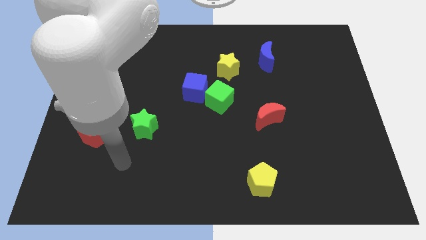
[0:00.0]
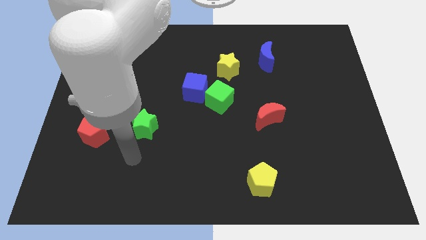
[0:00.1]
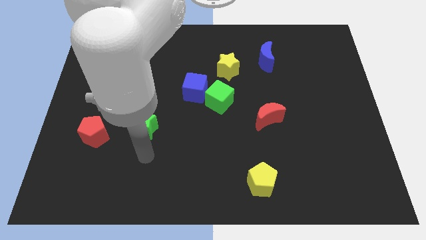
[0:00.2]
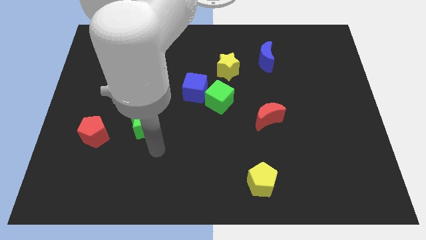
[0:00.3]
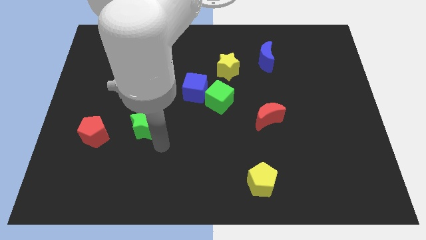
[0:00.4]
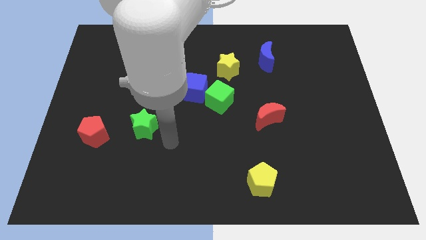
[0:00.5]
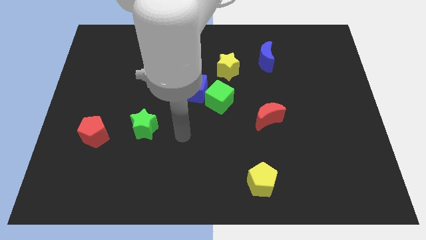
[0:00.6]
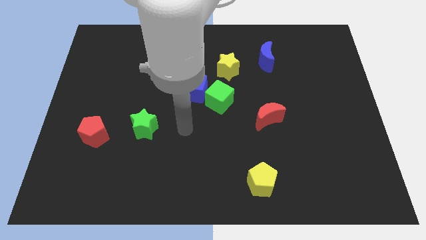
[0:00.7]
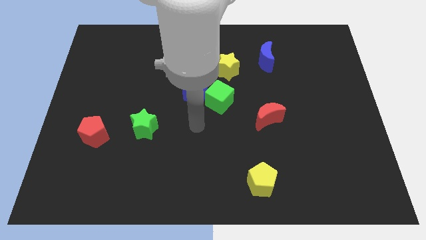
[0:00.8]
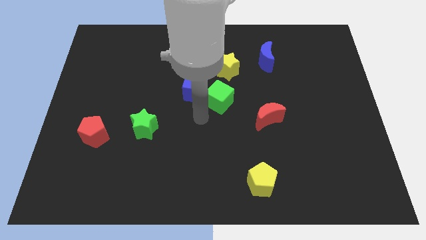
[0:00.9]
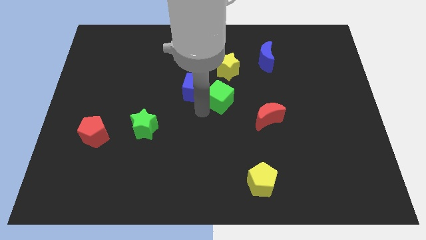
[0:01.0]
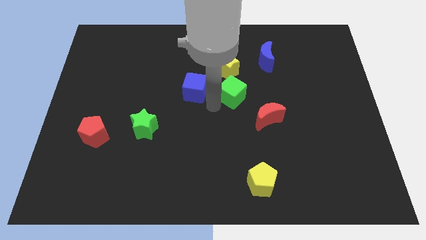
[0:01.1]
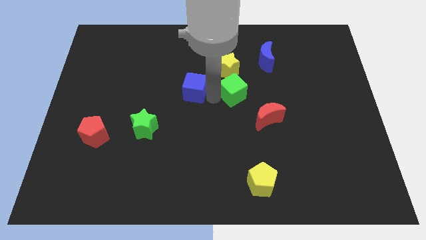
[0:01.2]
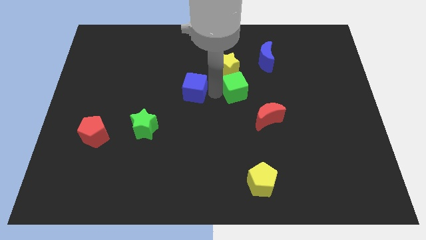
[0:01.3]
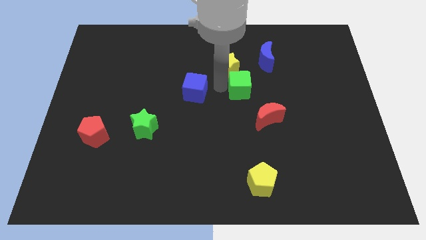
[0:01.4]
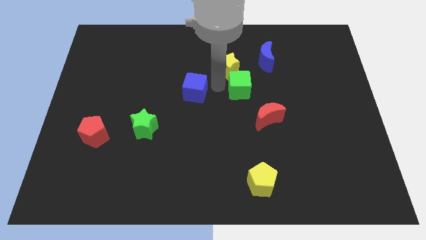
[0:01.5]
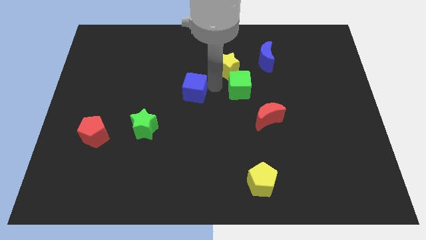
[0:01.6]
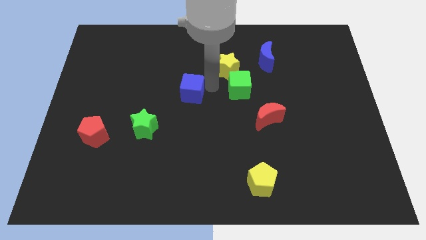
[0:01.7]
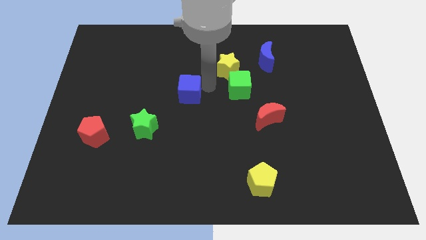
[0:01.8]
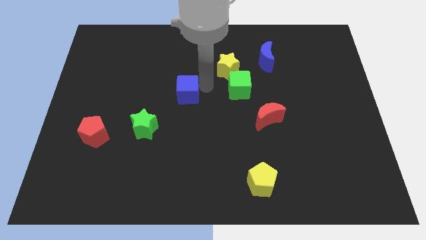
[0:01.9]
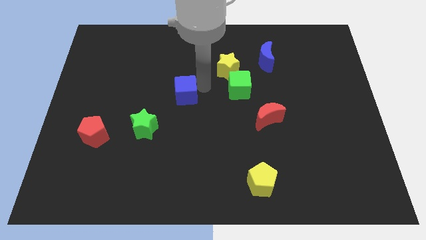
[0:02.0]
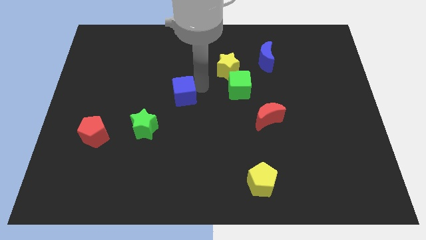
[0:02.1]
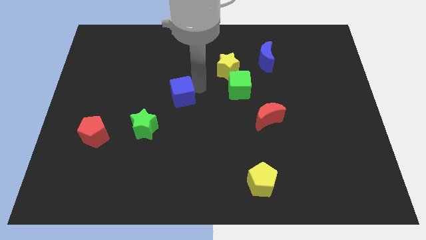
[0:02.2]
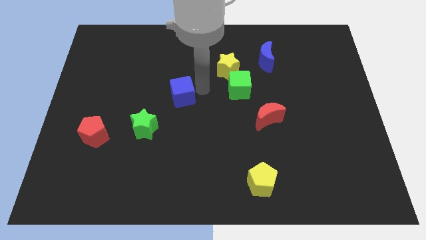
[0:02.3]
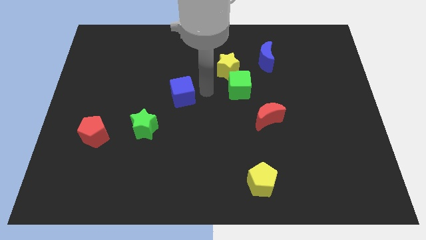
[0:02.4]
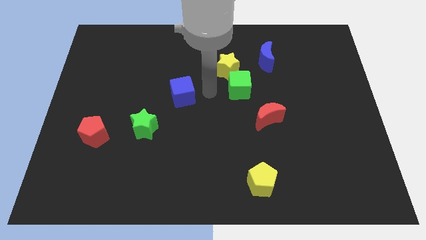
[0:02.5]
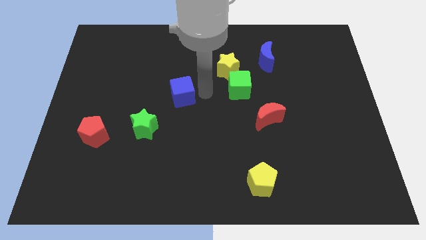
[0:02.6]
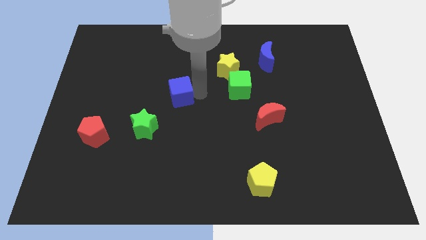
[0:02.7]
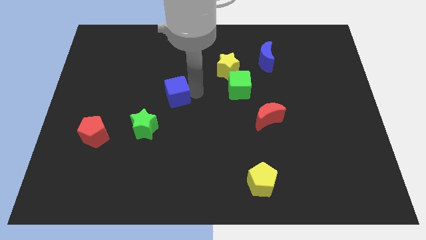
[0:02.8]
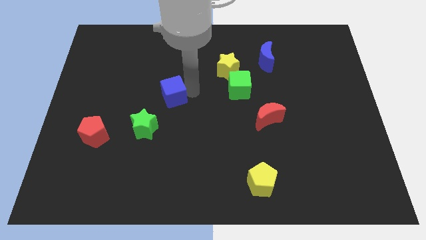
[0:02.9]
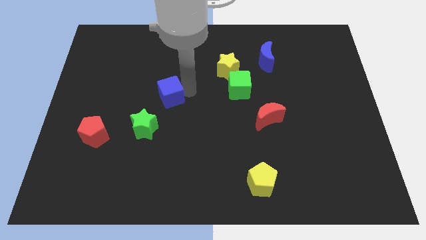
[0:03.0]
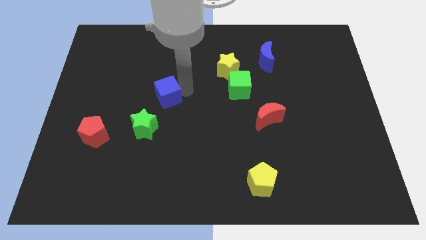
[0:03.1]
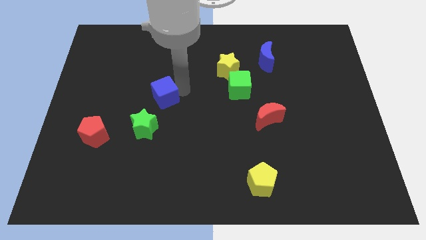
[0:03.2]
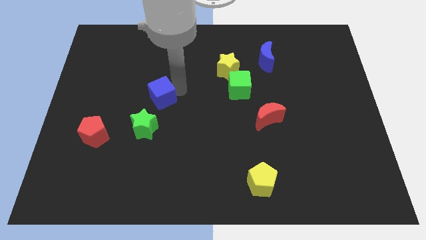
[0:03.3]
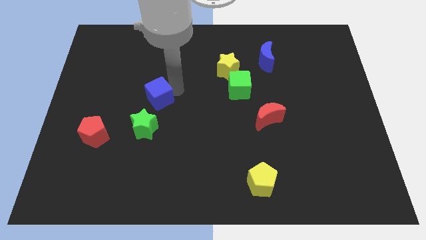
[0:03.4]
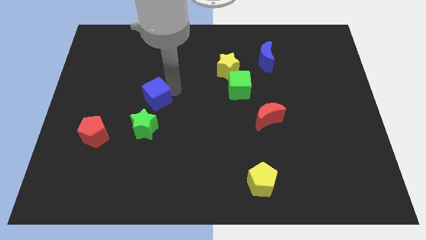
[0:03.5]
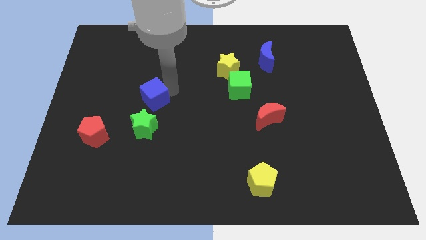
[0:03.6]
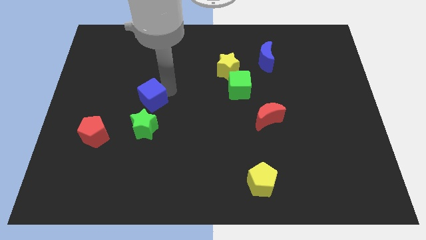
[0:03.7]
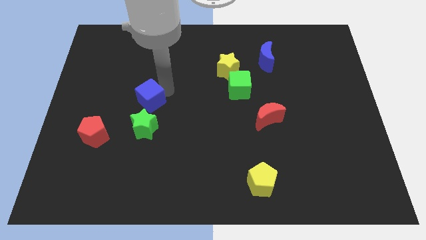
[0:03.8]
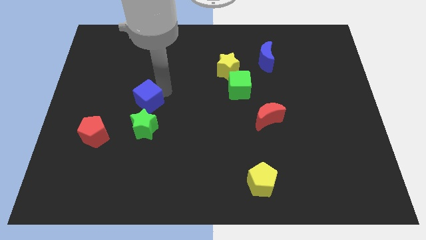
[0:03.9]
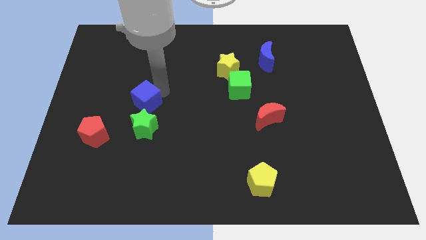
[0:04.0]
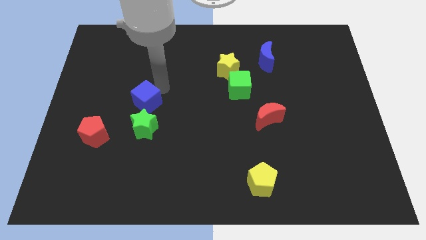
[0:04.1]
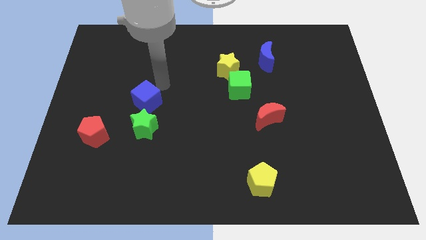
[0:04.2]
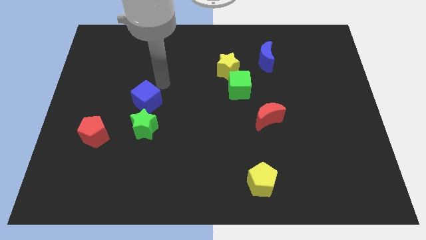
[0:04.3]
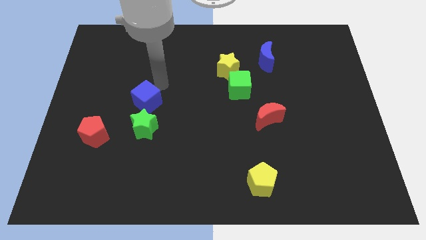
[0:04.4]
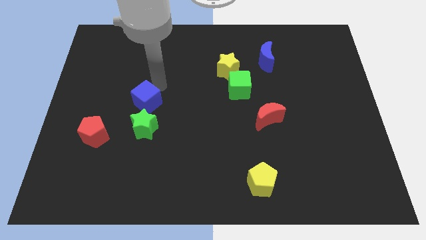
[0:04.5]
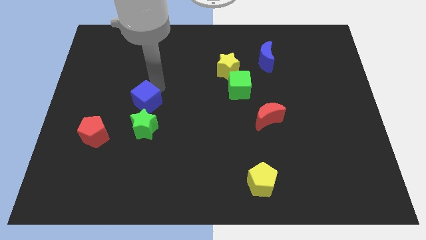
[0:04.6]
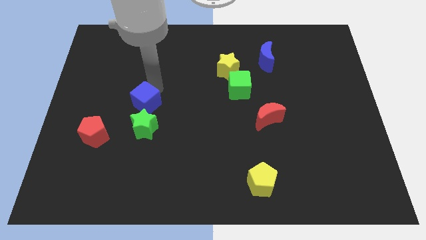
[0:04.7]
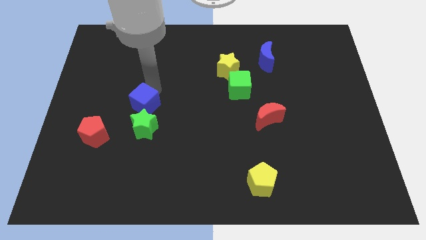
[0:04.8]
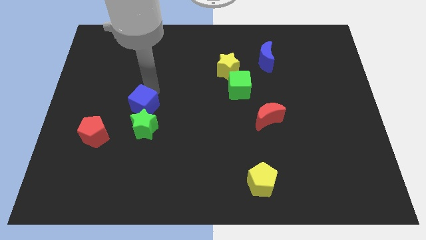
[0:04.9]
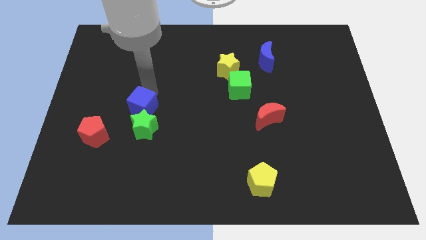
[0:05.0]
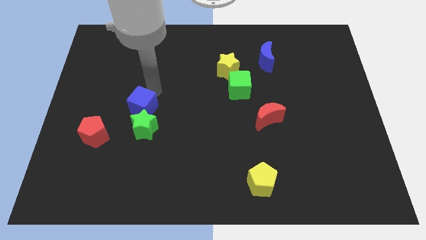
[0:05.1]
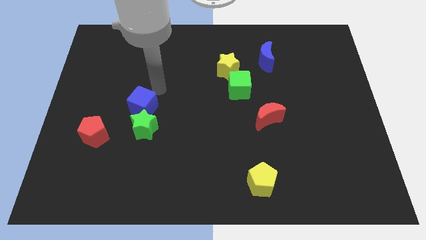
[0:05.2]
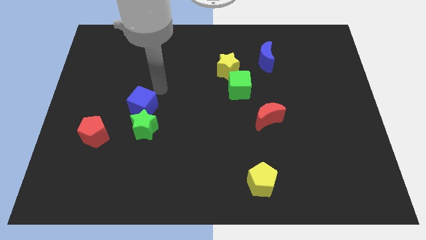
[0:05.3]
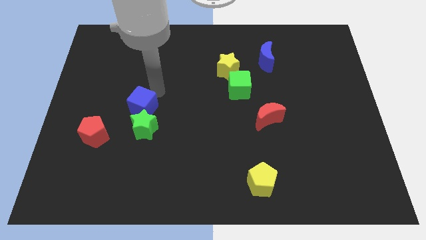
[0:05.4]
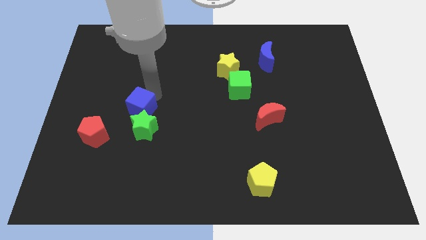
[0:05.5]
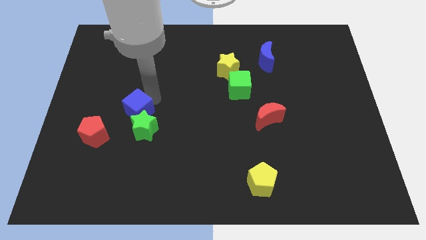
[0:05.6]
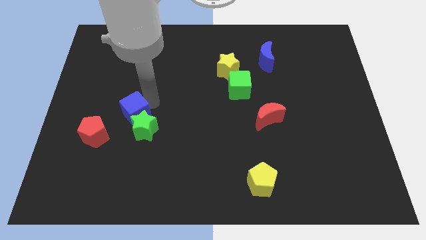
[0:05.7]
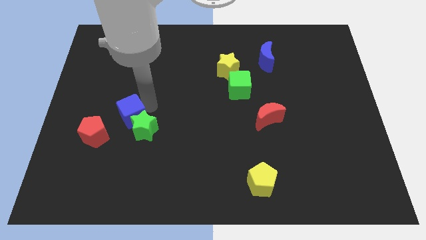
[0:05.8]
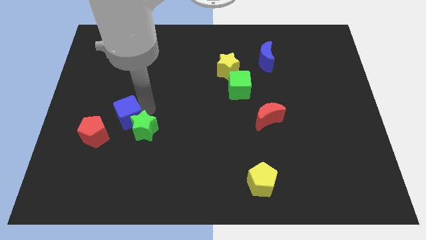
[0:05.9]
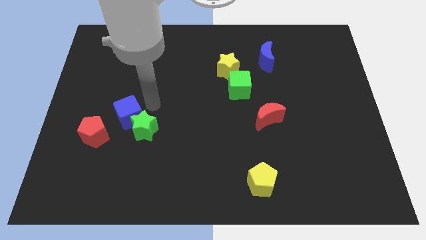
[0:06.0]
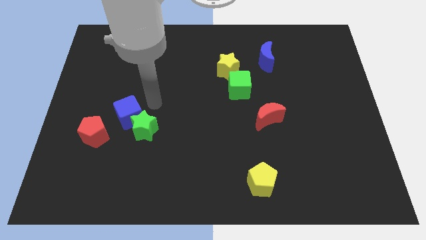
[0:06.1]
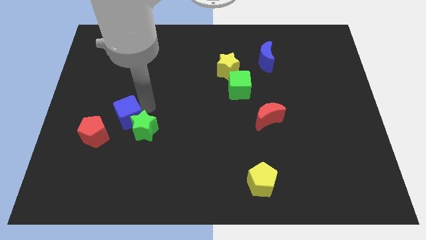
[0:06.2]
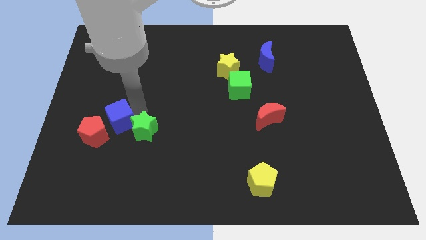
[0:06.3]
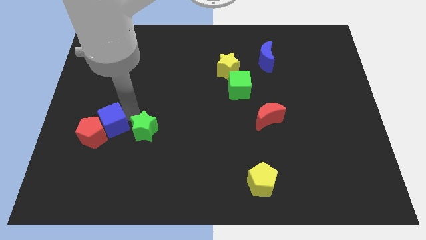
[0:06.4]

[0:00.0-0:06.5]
slide the blue cube close to the red pentagon

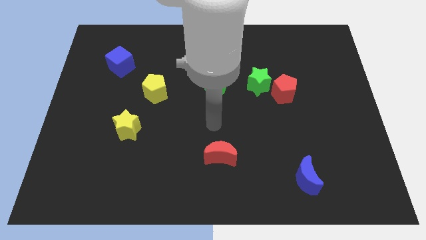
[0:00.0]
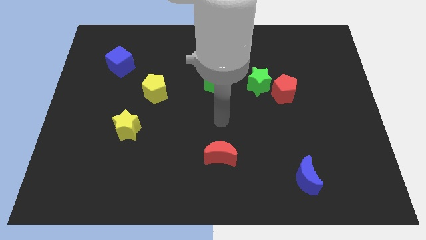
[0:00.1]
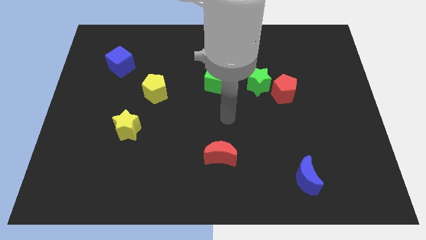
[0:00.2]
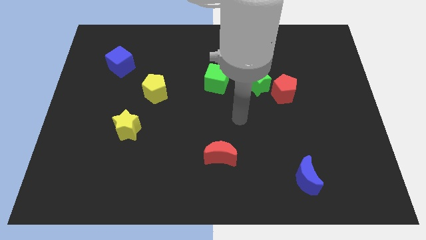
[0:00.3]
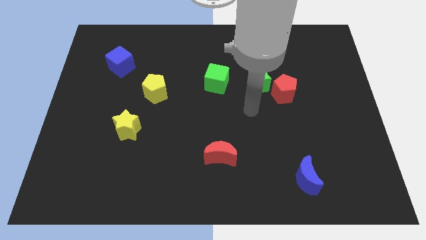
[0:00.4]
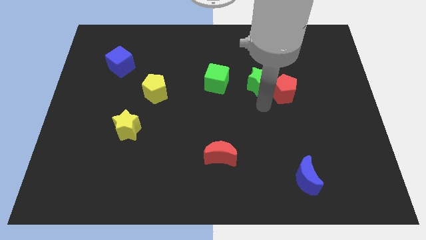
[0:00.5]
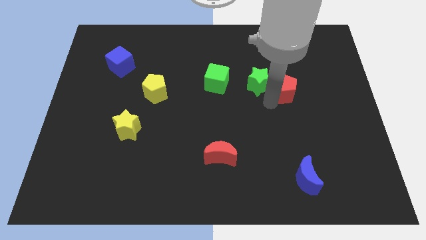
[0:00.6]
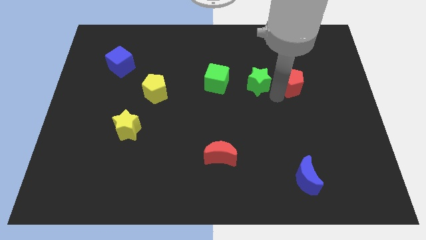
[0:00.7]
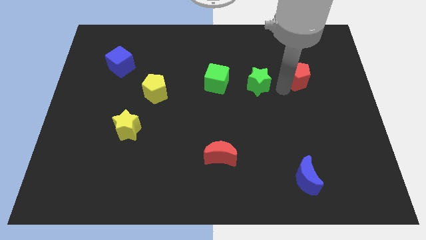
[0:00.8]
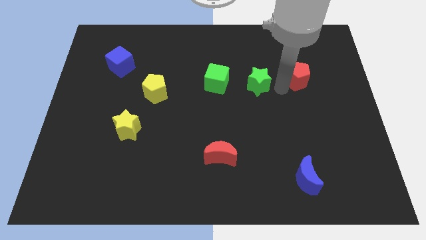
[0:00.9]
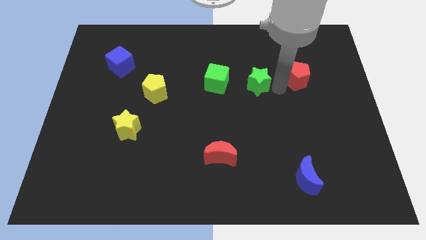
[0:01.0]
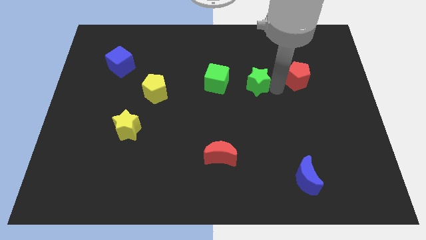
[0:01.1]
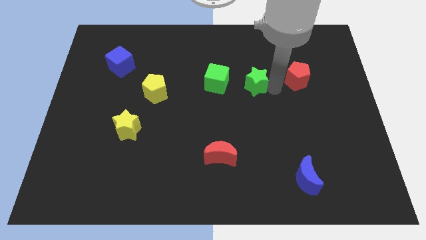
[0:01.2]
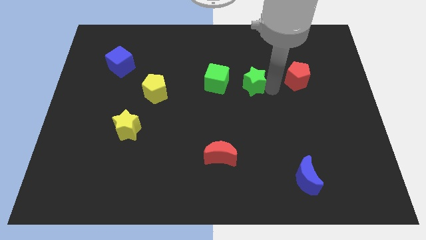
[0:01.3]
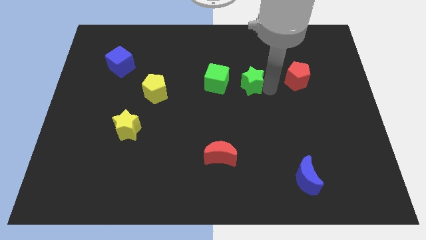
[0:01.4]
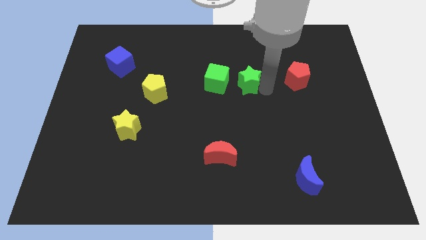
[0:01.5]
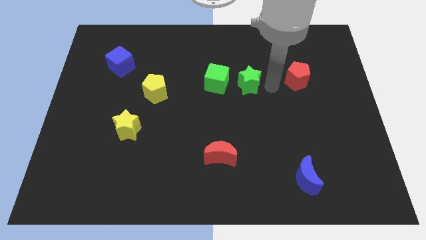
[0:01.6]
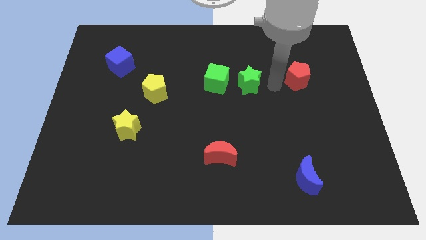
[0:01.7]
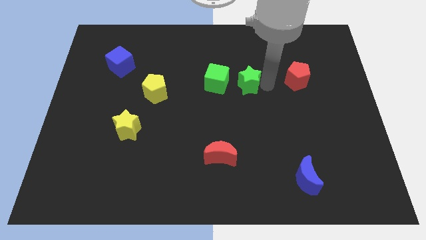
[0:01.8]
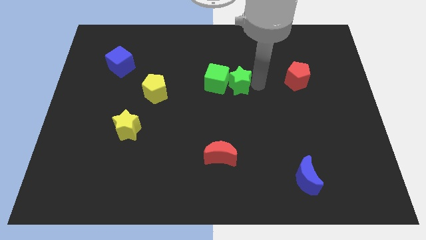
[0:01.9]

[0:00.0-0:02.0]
push the green star towards the green cube
